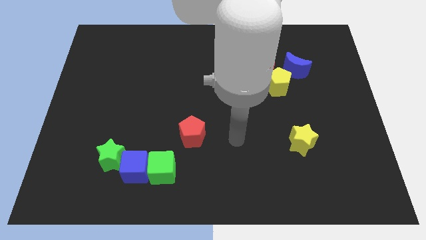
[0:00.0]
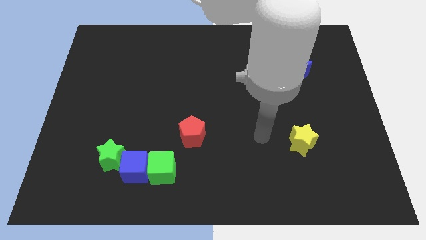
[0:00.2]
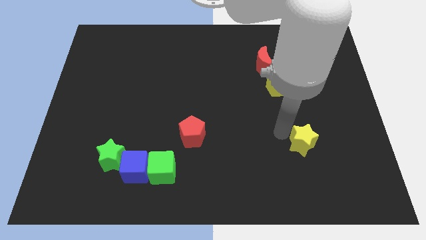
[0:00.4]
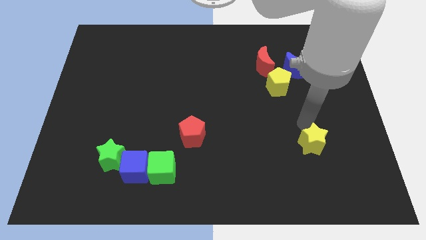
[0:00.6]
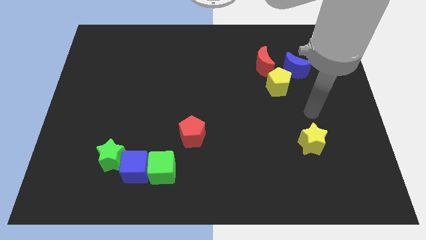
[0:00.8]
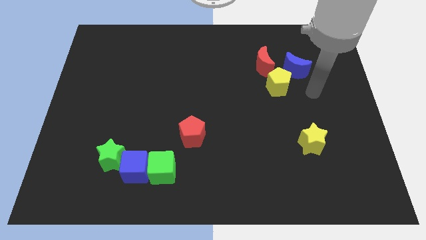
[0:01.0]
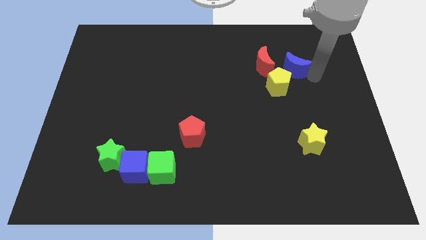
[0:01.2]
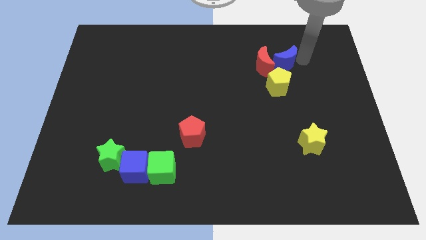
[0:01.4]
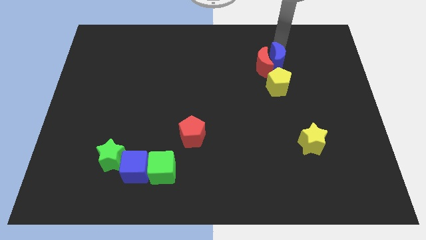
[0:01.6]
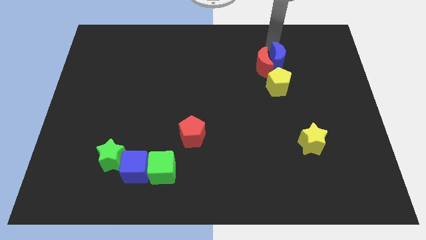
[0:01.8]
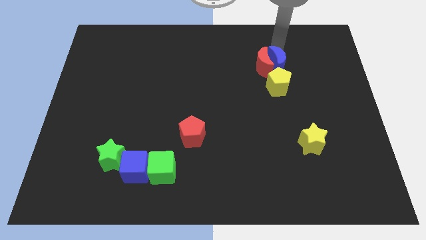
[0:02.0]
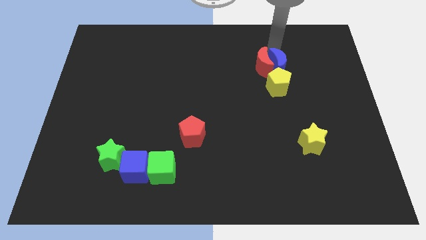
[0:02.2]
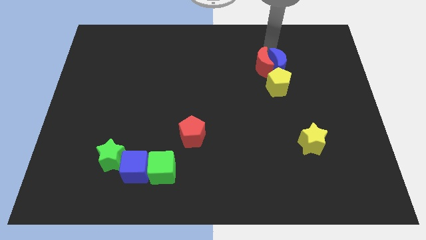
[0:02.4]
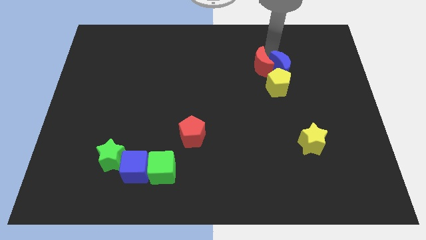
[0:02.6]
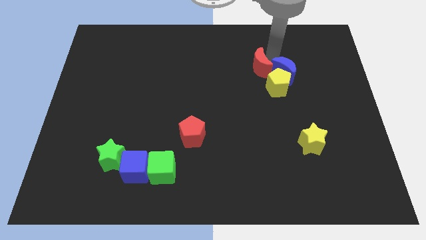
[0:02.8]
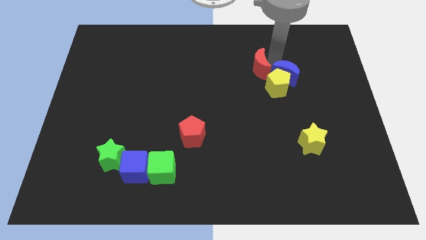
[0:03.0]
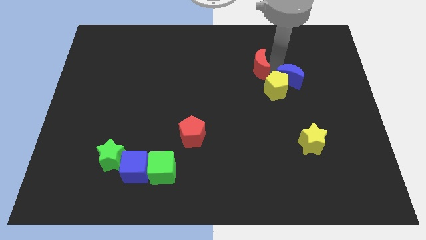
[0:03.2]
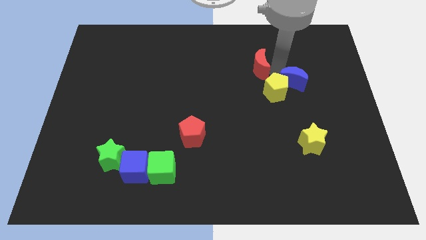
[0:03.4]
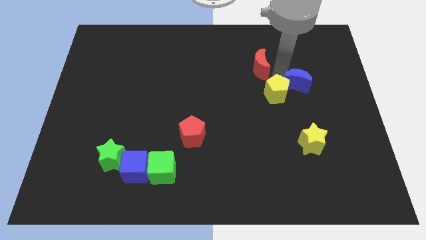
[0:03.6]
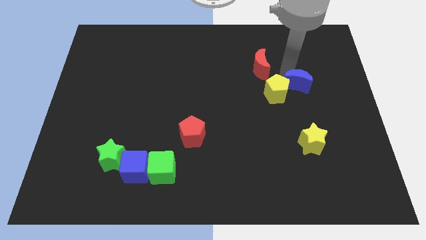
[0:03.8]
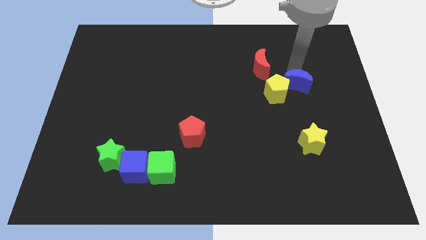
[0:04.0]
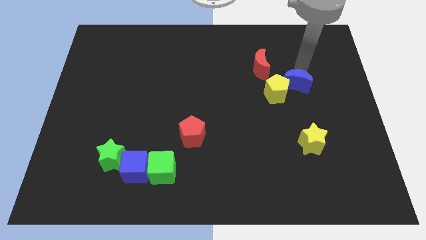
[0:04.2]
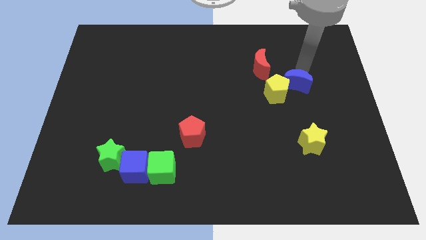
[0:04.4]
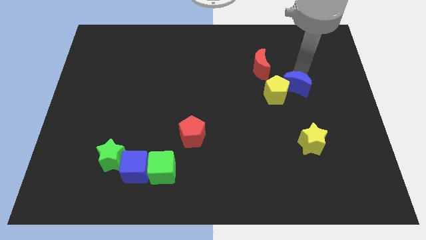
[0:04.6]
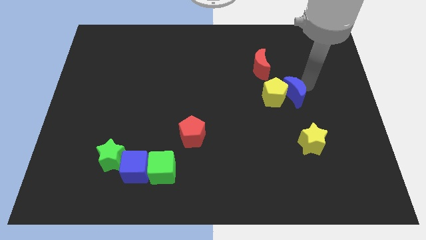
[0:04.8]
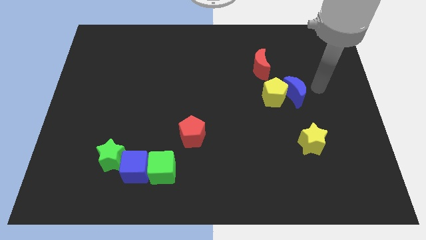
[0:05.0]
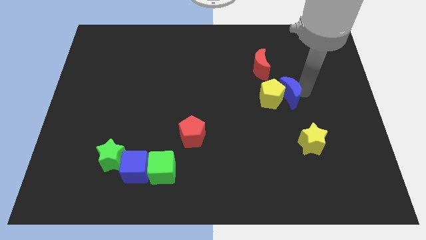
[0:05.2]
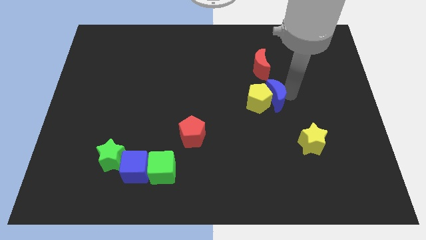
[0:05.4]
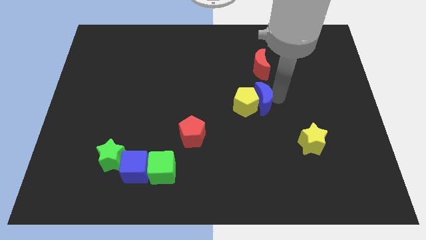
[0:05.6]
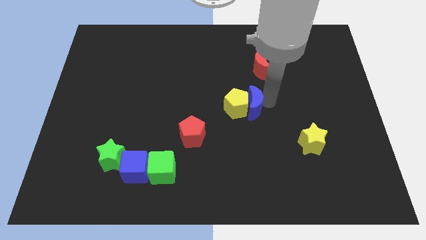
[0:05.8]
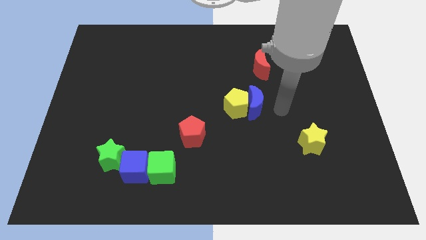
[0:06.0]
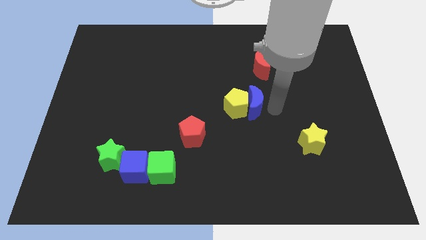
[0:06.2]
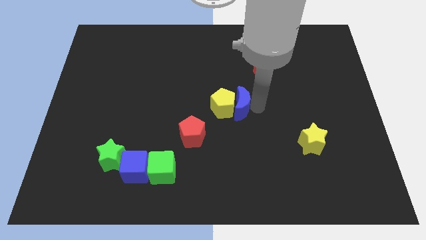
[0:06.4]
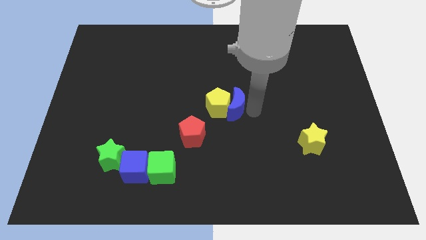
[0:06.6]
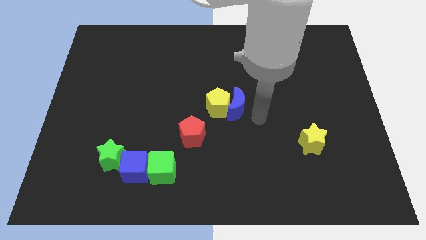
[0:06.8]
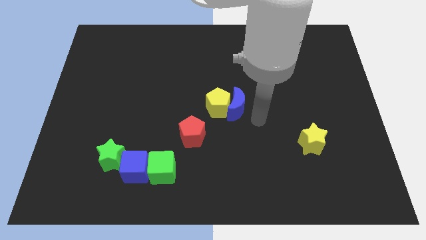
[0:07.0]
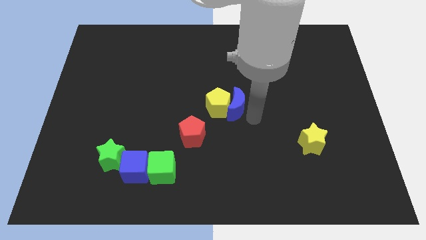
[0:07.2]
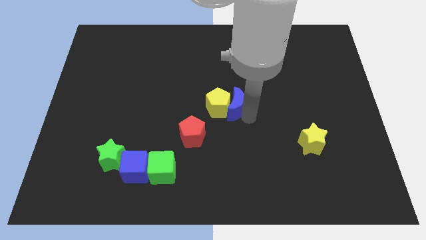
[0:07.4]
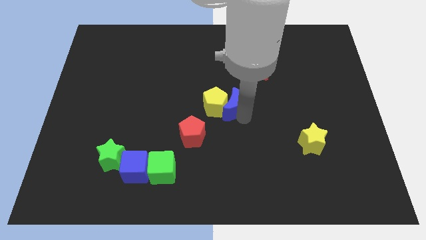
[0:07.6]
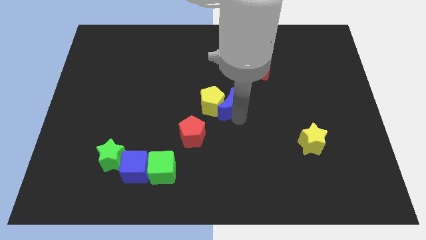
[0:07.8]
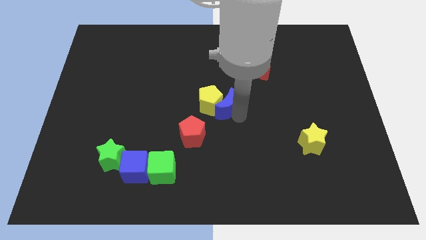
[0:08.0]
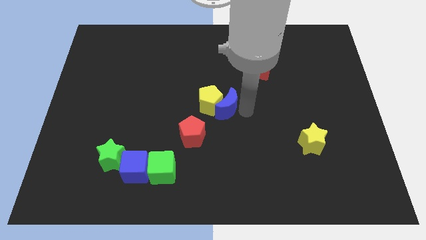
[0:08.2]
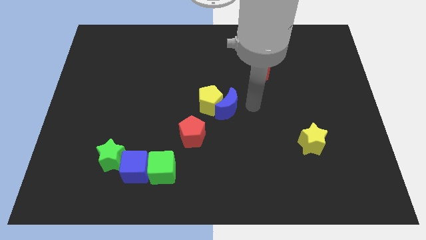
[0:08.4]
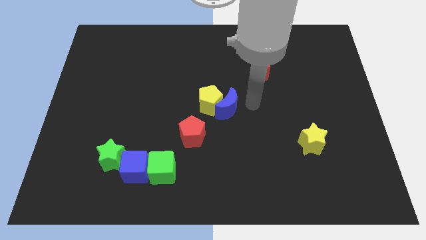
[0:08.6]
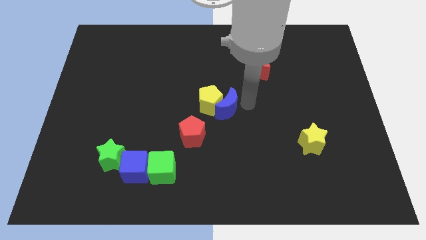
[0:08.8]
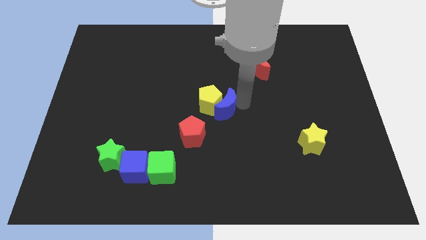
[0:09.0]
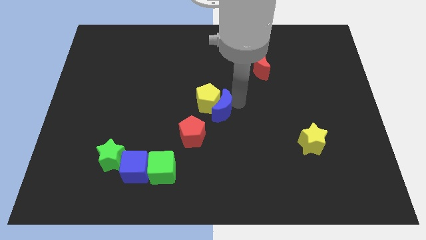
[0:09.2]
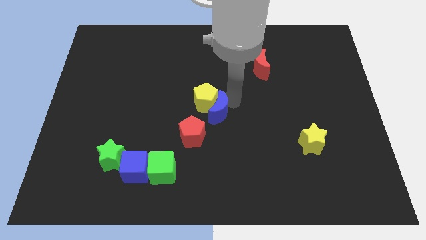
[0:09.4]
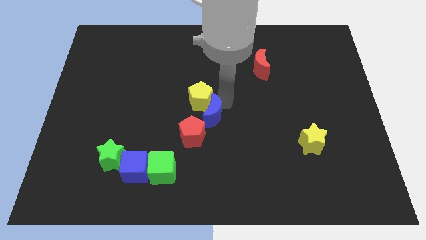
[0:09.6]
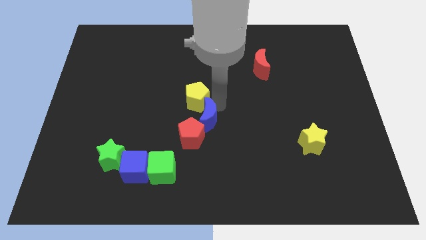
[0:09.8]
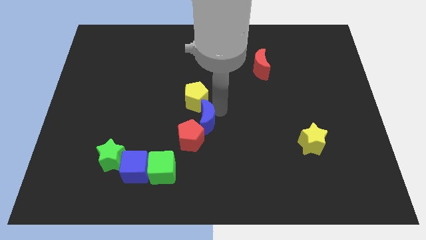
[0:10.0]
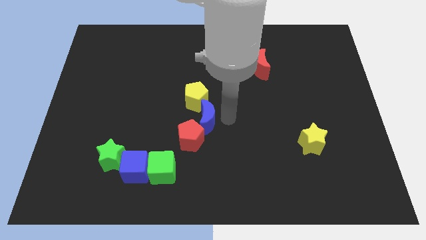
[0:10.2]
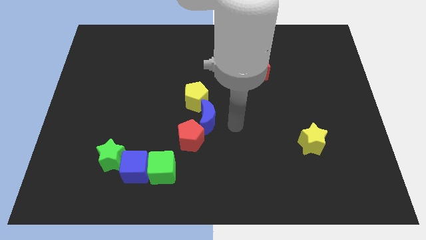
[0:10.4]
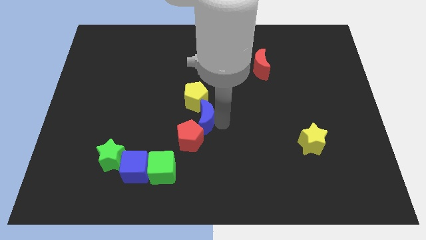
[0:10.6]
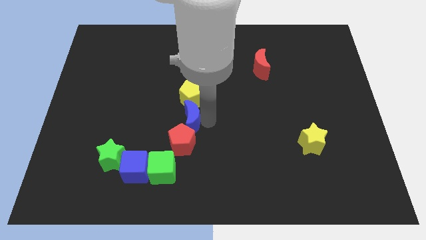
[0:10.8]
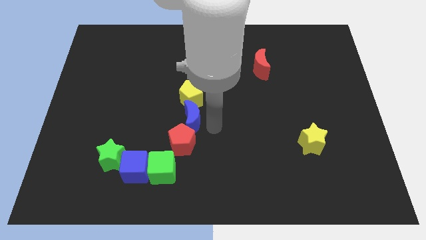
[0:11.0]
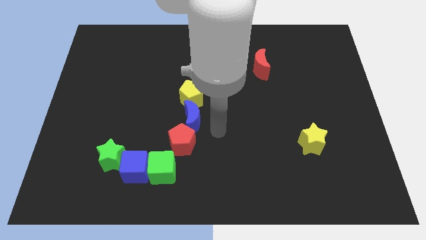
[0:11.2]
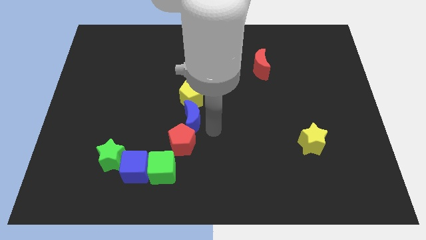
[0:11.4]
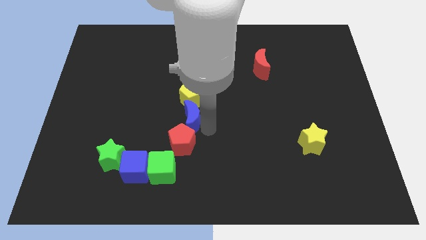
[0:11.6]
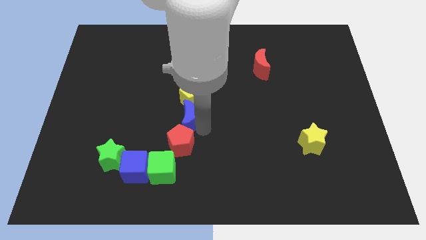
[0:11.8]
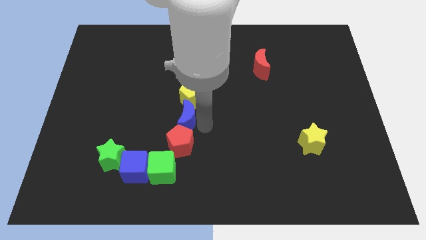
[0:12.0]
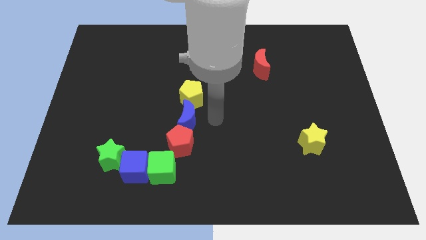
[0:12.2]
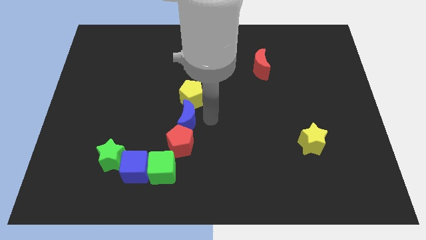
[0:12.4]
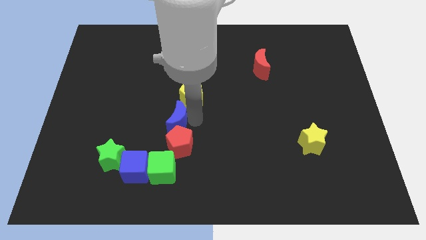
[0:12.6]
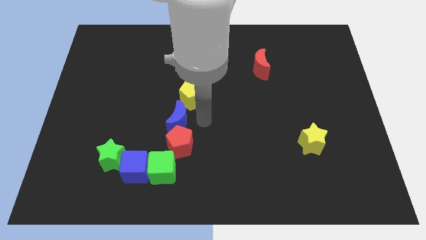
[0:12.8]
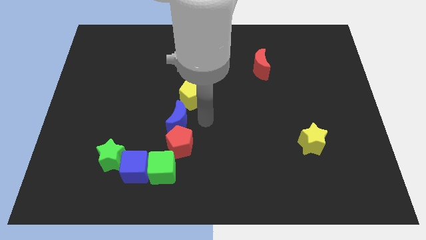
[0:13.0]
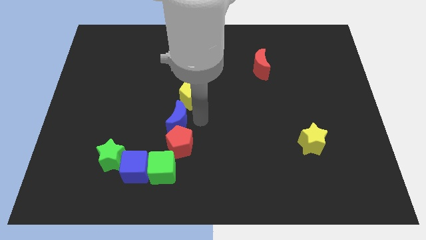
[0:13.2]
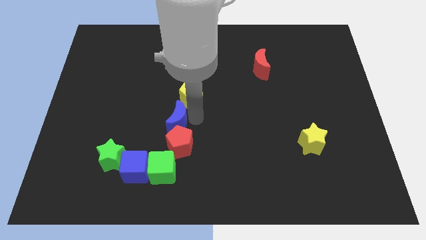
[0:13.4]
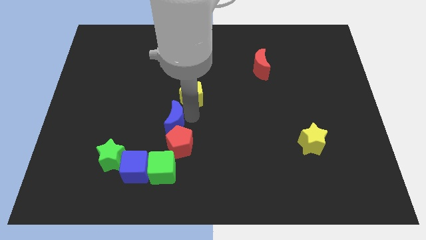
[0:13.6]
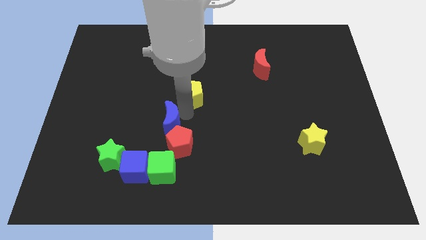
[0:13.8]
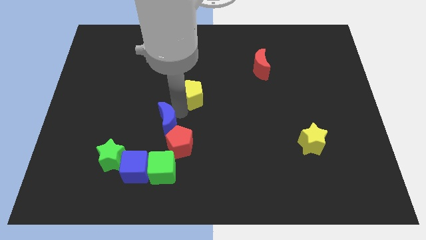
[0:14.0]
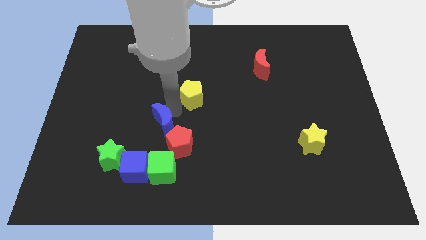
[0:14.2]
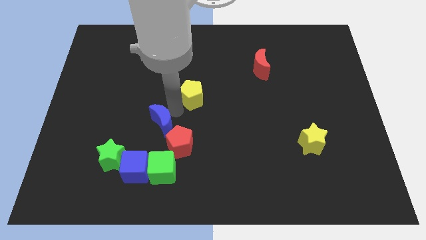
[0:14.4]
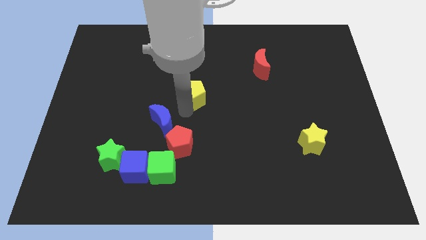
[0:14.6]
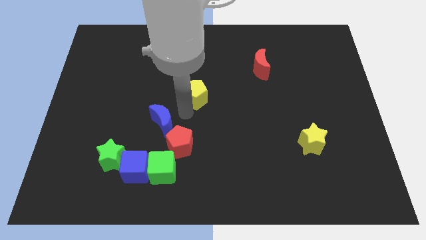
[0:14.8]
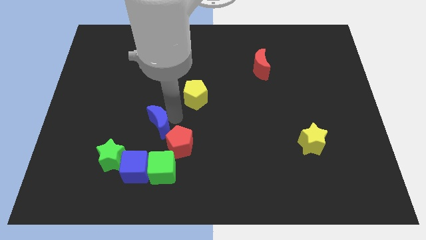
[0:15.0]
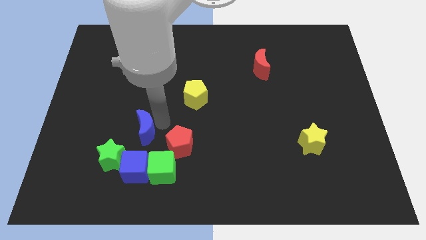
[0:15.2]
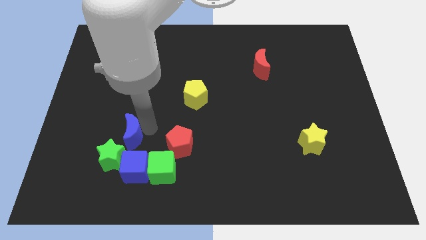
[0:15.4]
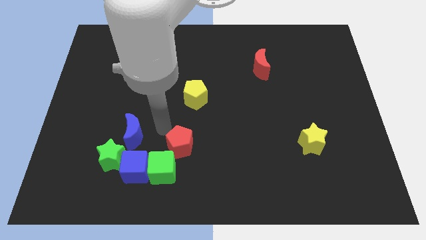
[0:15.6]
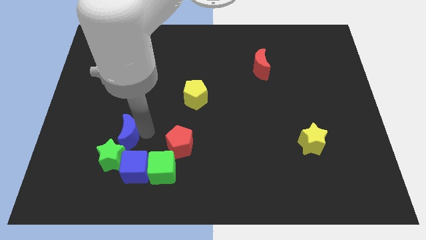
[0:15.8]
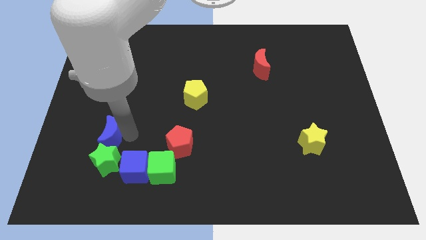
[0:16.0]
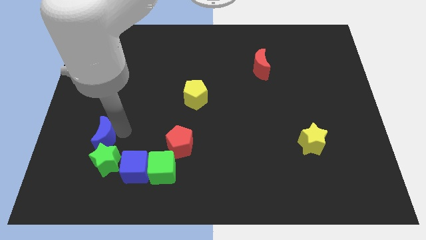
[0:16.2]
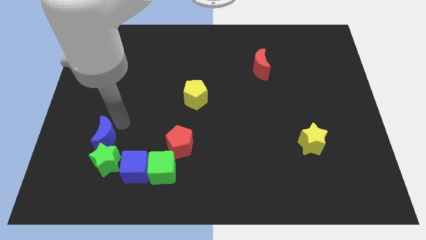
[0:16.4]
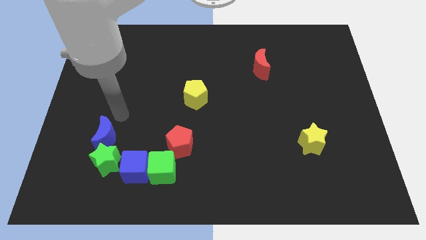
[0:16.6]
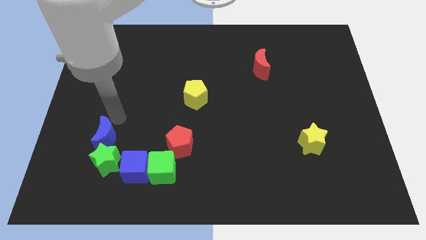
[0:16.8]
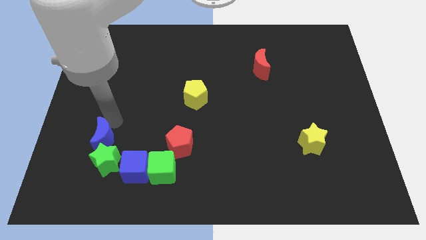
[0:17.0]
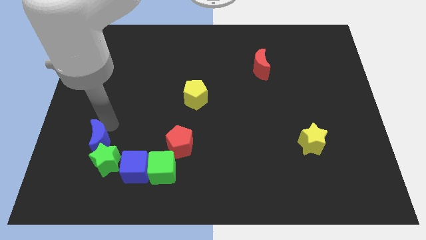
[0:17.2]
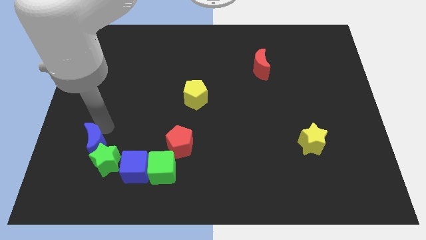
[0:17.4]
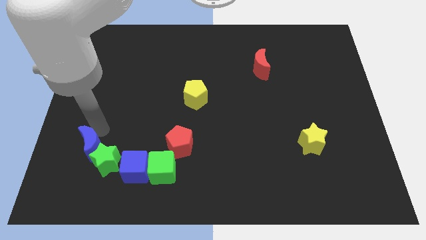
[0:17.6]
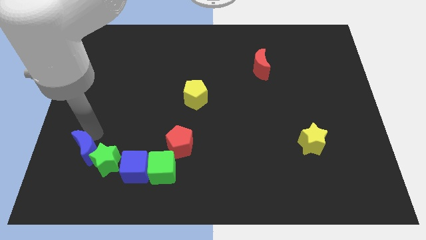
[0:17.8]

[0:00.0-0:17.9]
put the blue moon left of the blue cube
